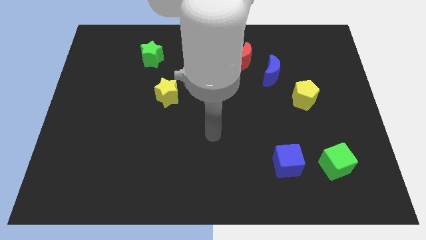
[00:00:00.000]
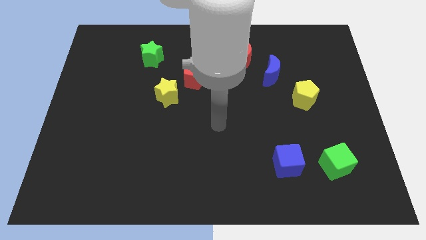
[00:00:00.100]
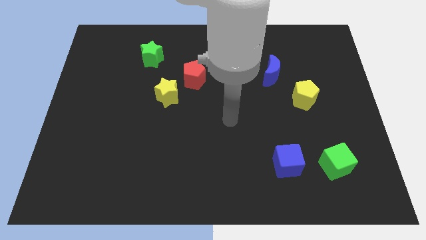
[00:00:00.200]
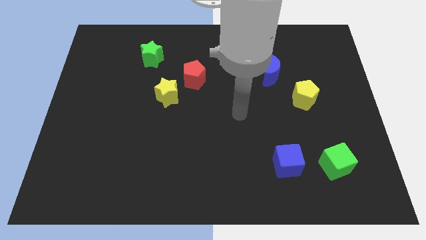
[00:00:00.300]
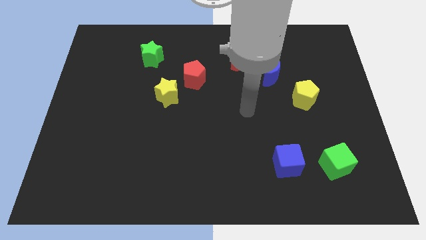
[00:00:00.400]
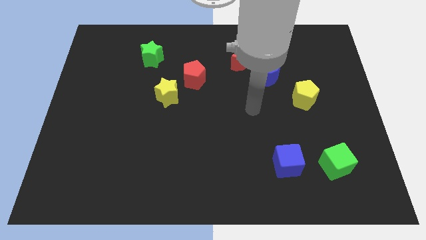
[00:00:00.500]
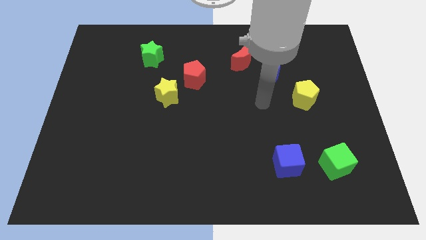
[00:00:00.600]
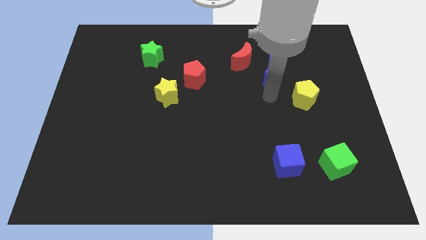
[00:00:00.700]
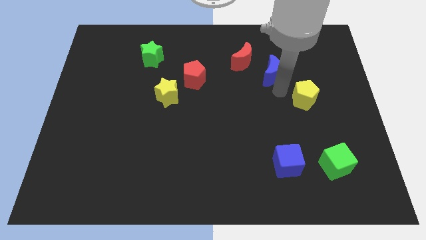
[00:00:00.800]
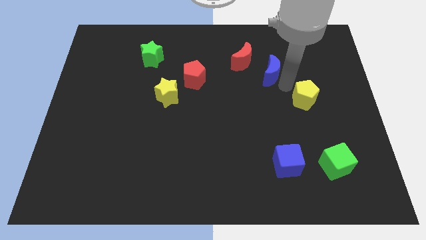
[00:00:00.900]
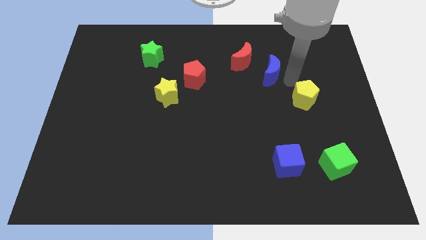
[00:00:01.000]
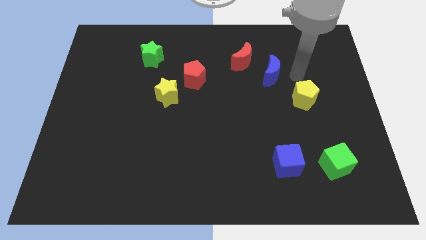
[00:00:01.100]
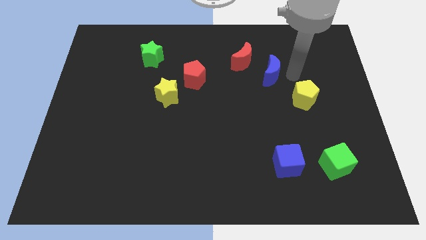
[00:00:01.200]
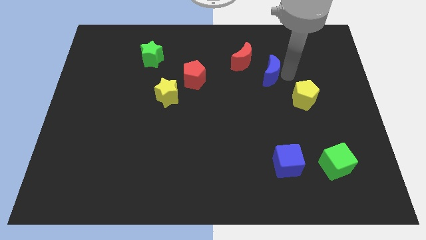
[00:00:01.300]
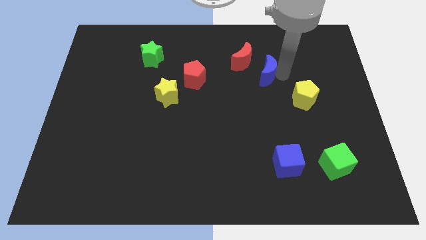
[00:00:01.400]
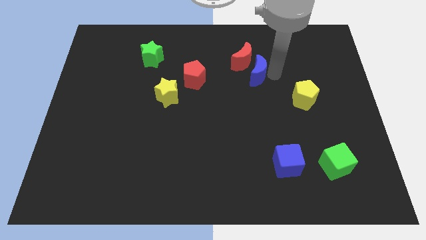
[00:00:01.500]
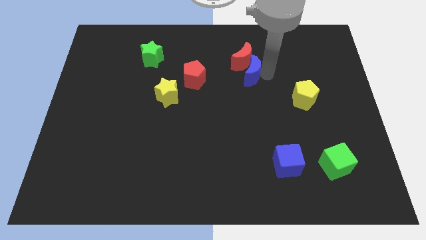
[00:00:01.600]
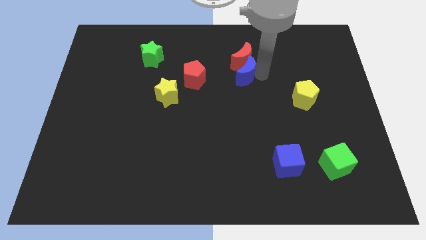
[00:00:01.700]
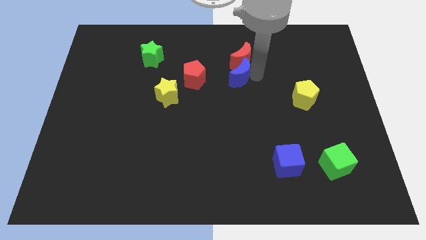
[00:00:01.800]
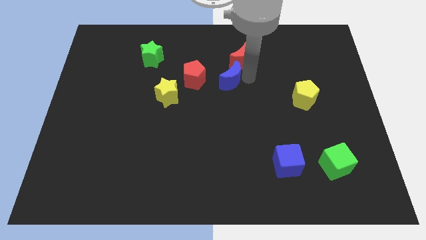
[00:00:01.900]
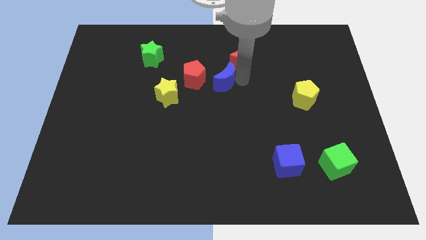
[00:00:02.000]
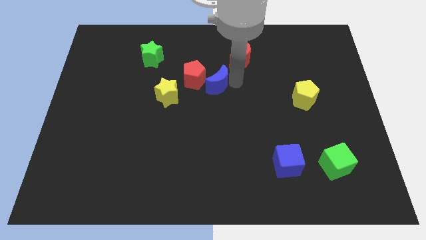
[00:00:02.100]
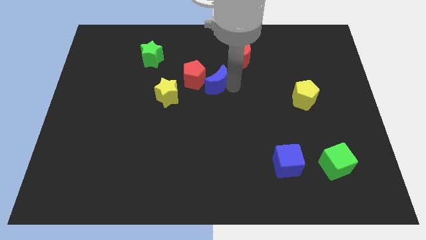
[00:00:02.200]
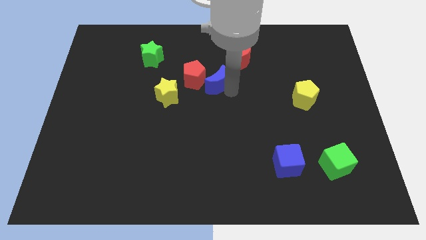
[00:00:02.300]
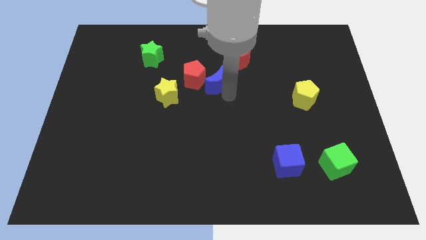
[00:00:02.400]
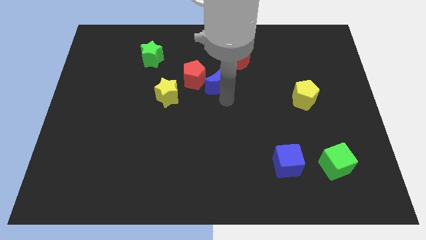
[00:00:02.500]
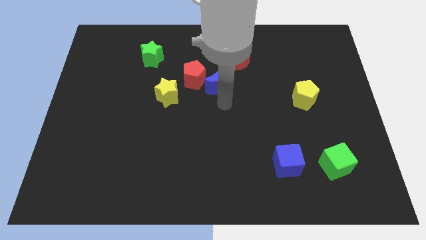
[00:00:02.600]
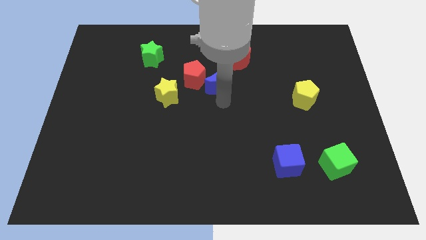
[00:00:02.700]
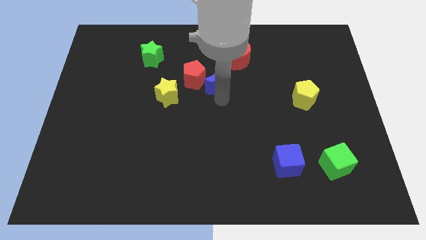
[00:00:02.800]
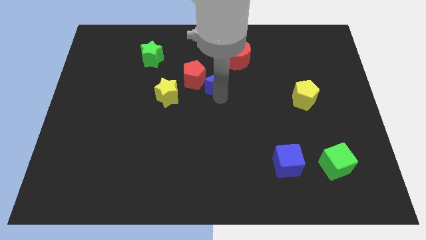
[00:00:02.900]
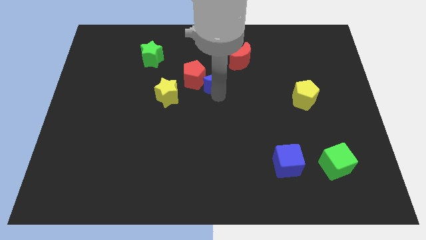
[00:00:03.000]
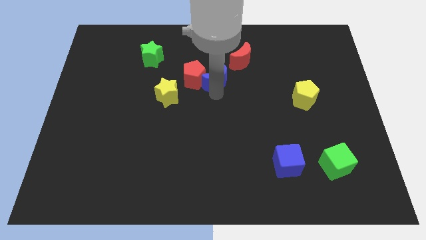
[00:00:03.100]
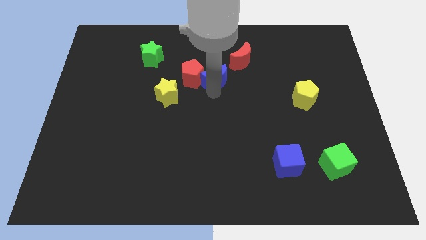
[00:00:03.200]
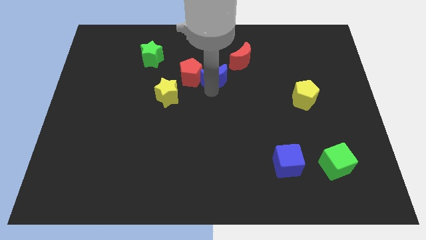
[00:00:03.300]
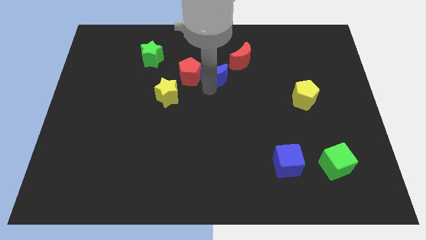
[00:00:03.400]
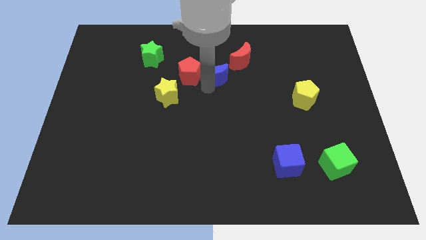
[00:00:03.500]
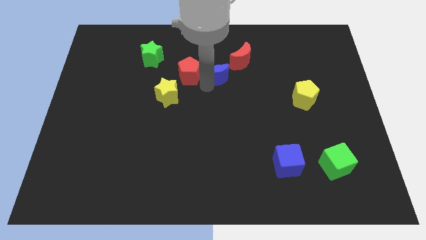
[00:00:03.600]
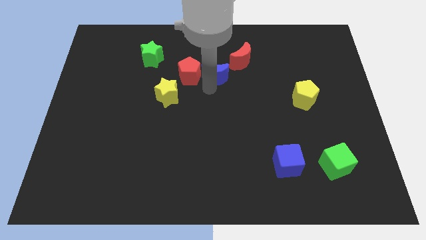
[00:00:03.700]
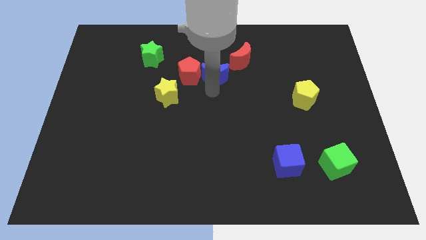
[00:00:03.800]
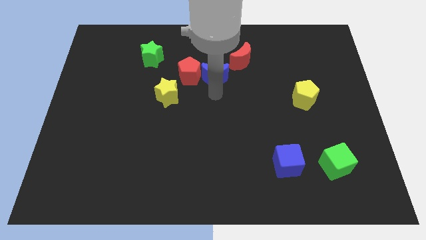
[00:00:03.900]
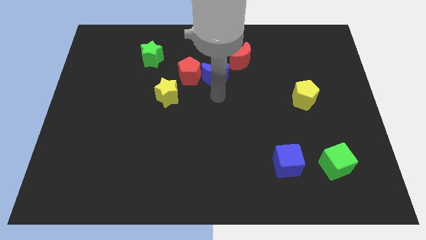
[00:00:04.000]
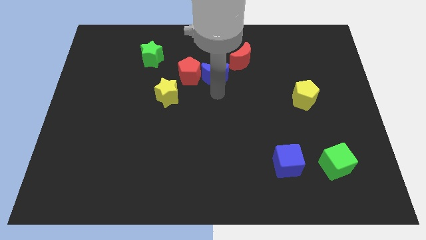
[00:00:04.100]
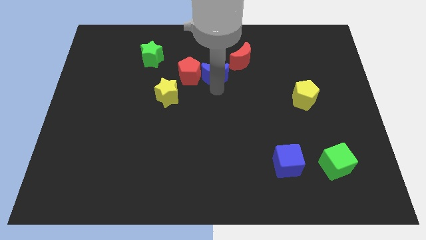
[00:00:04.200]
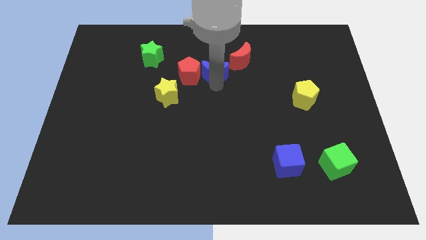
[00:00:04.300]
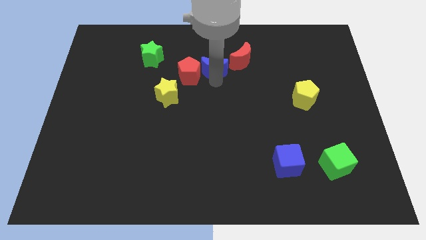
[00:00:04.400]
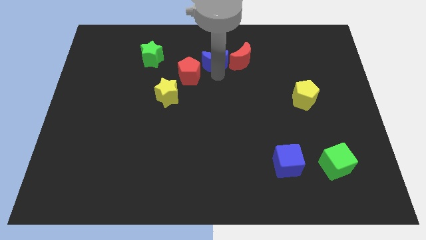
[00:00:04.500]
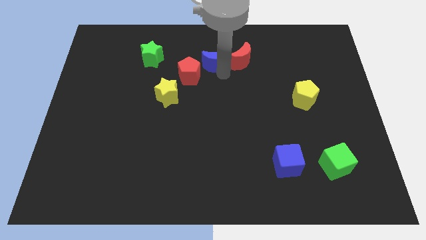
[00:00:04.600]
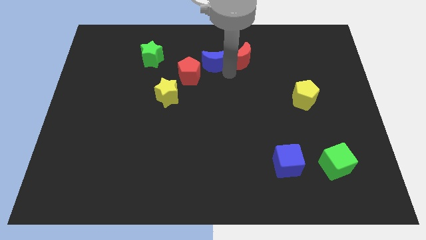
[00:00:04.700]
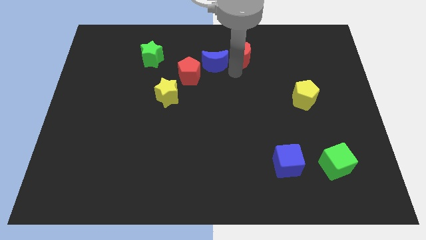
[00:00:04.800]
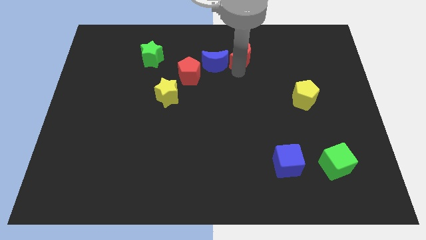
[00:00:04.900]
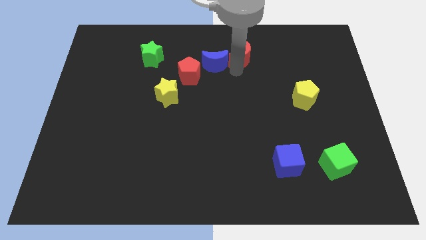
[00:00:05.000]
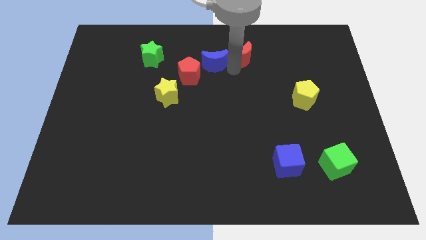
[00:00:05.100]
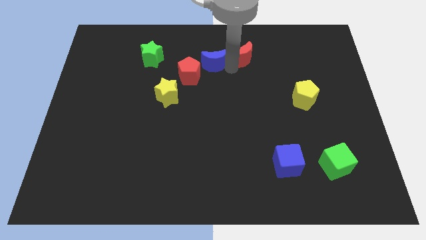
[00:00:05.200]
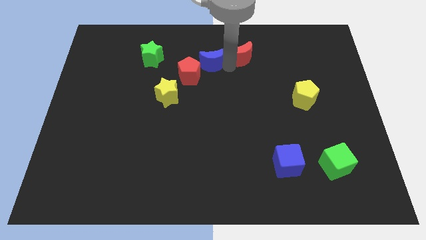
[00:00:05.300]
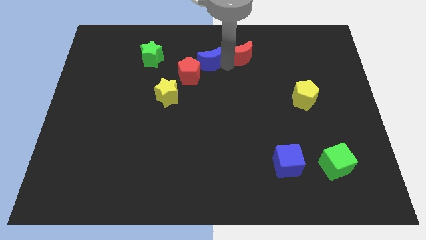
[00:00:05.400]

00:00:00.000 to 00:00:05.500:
push the blue moon to the right side of the green star

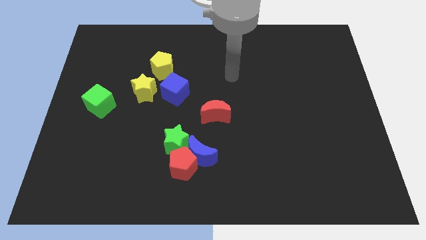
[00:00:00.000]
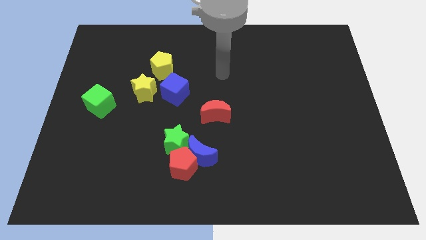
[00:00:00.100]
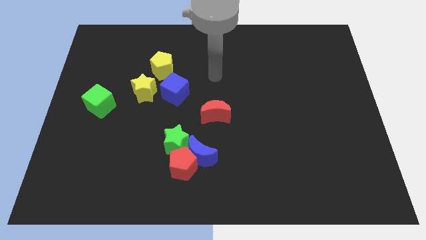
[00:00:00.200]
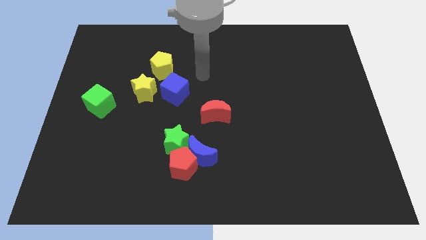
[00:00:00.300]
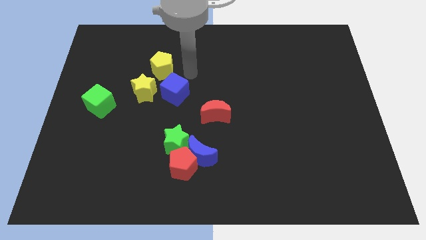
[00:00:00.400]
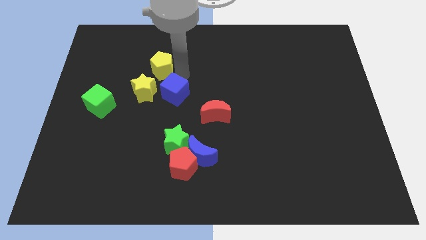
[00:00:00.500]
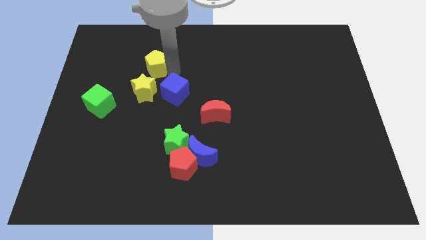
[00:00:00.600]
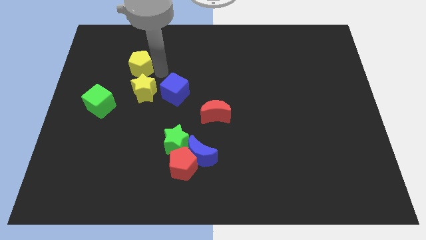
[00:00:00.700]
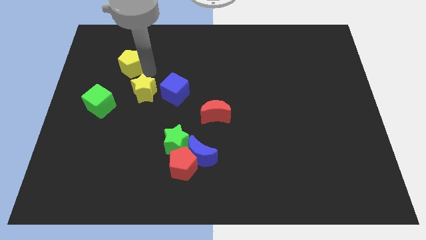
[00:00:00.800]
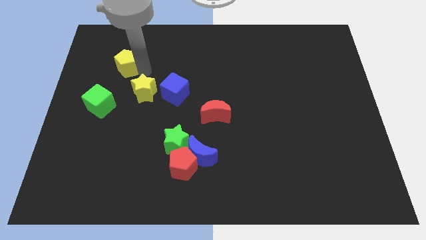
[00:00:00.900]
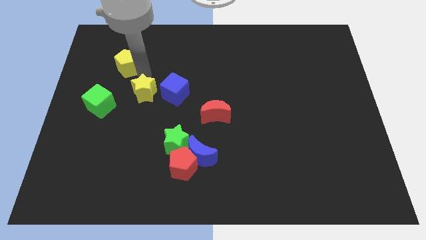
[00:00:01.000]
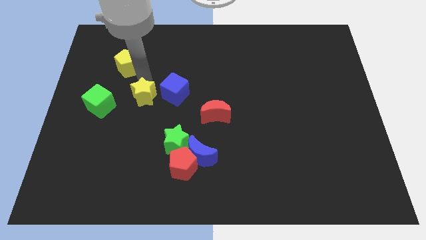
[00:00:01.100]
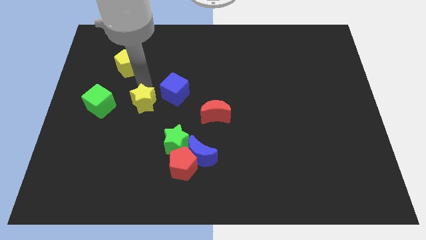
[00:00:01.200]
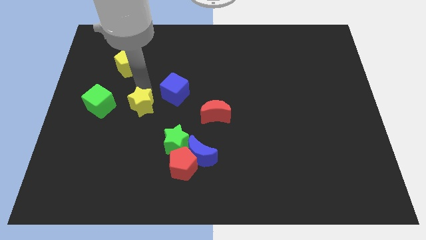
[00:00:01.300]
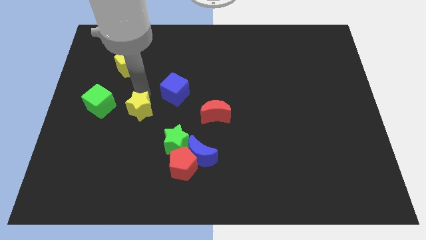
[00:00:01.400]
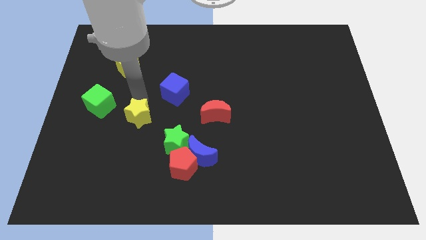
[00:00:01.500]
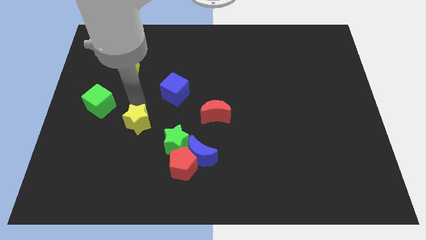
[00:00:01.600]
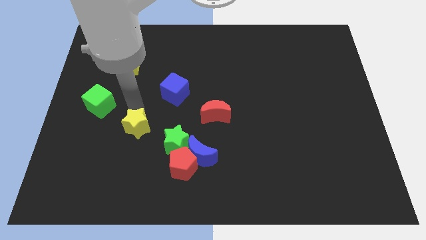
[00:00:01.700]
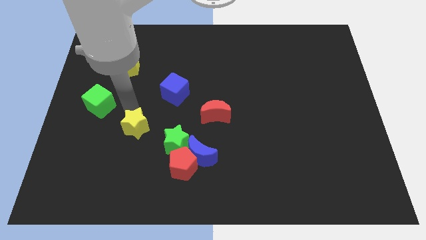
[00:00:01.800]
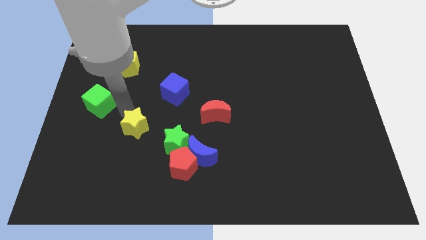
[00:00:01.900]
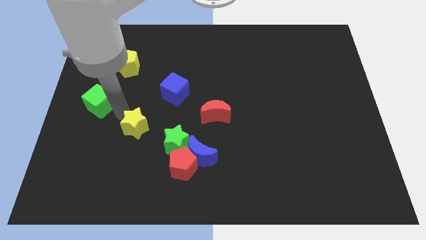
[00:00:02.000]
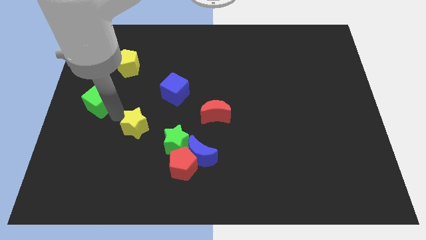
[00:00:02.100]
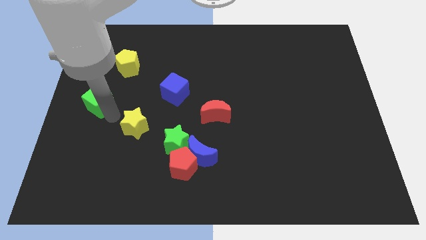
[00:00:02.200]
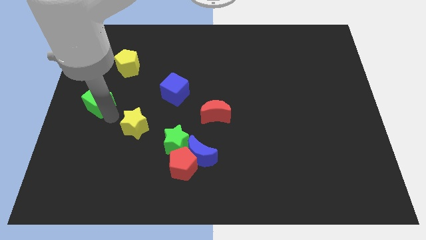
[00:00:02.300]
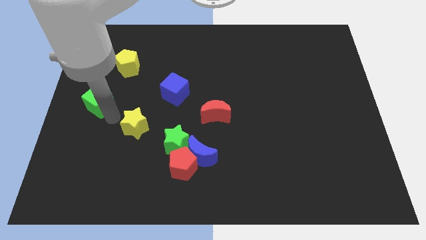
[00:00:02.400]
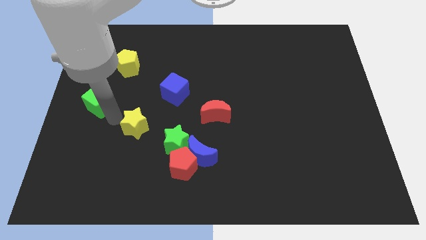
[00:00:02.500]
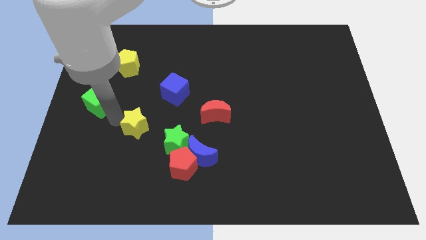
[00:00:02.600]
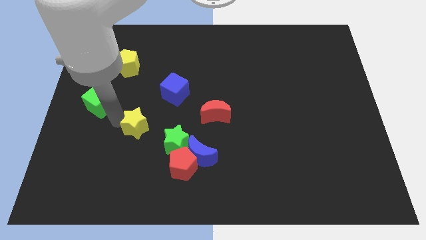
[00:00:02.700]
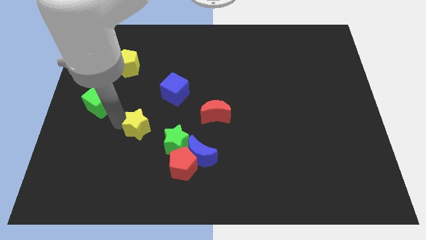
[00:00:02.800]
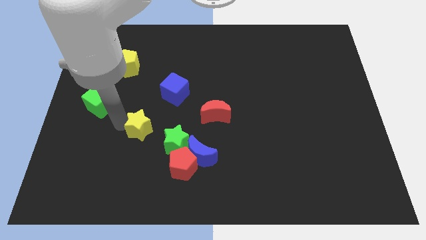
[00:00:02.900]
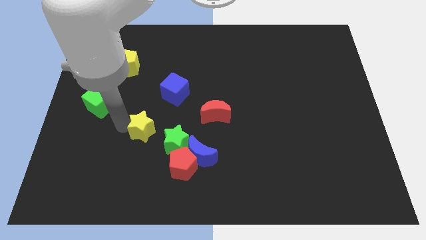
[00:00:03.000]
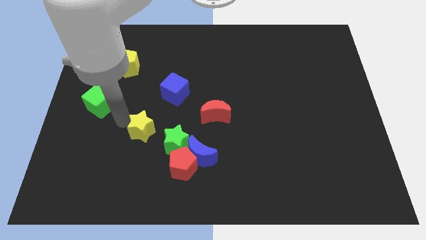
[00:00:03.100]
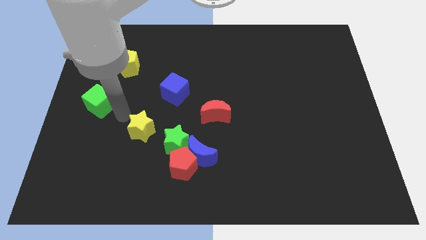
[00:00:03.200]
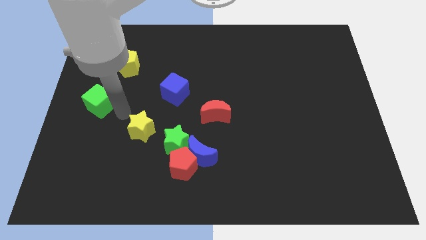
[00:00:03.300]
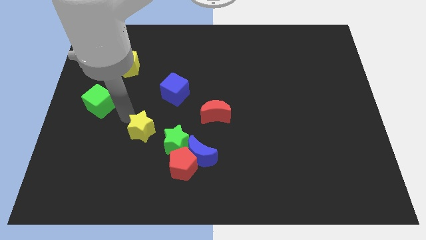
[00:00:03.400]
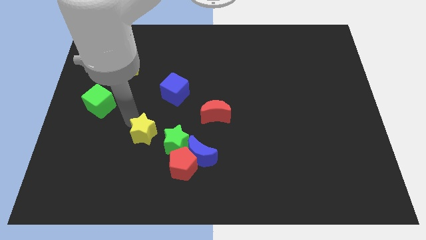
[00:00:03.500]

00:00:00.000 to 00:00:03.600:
put the yellow star to the top left side of the red pentagon
